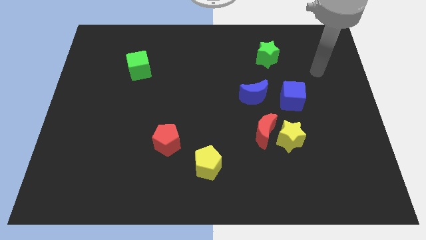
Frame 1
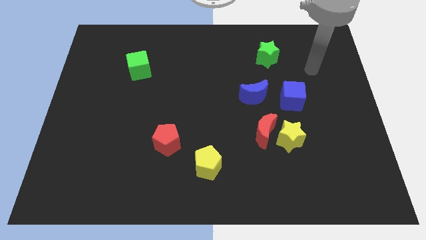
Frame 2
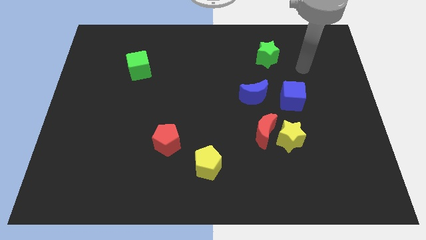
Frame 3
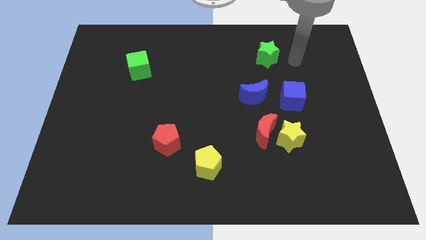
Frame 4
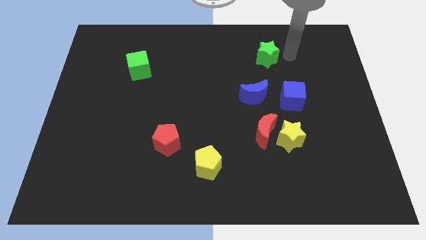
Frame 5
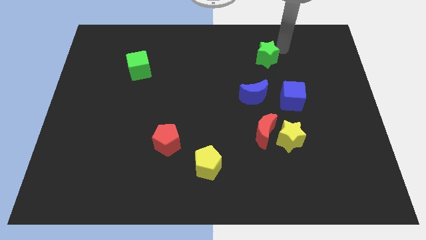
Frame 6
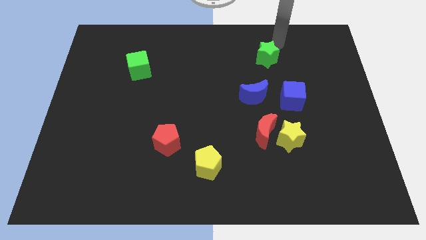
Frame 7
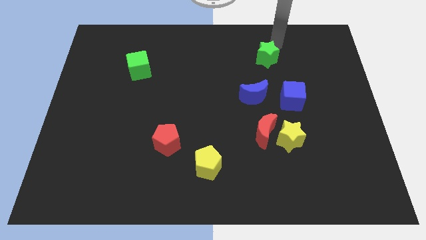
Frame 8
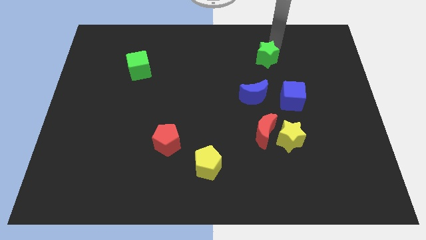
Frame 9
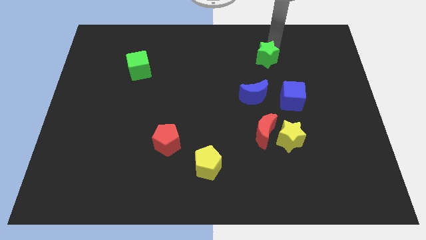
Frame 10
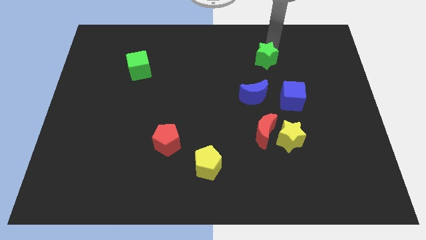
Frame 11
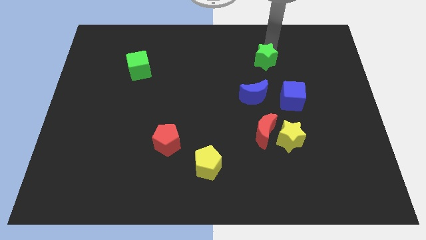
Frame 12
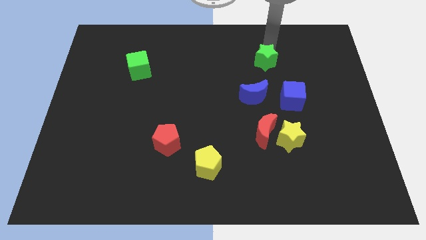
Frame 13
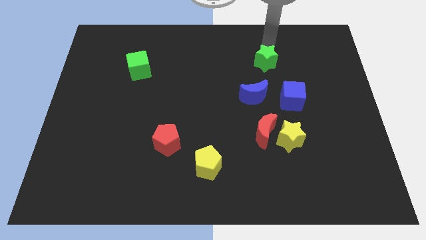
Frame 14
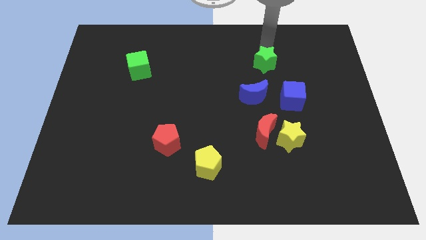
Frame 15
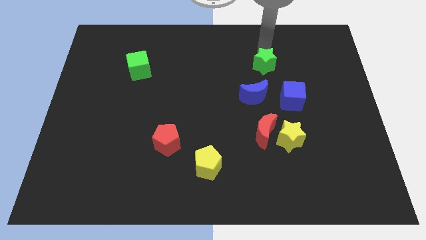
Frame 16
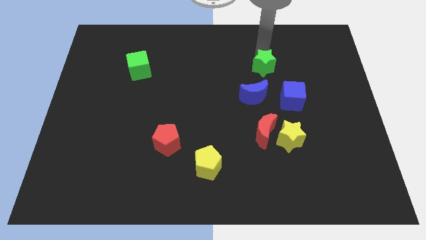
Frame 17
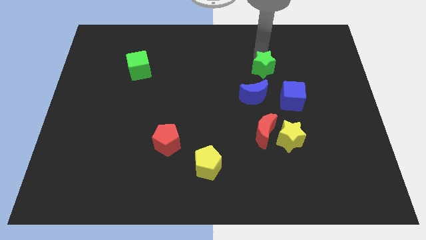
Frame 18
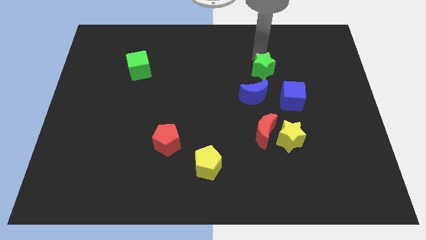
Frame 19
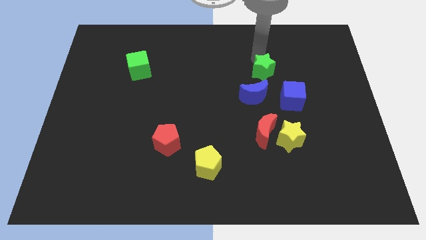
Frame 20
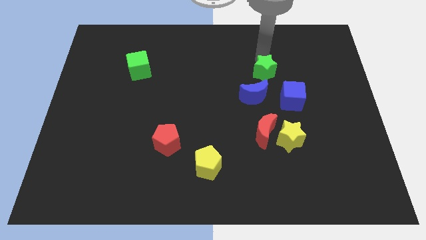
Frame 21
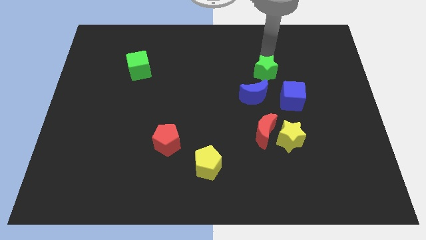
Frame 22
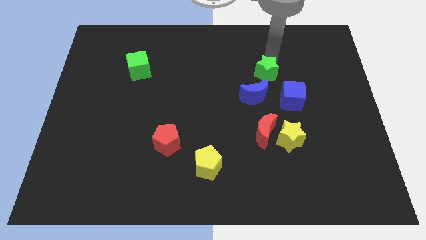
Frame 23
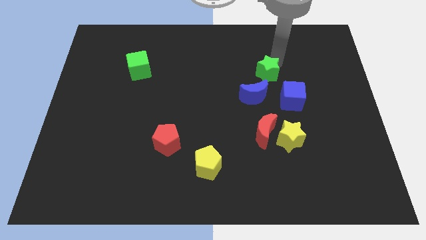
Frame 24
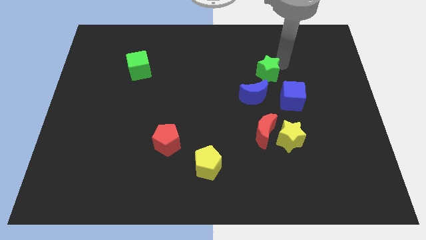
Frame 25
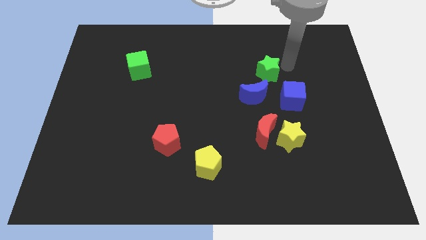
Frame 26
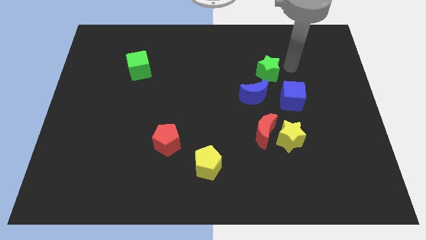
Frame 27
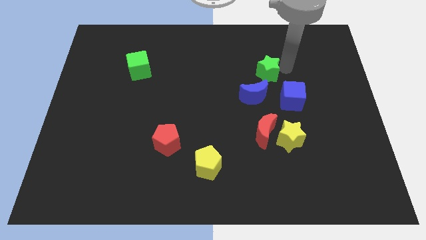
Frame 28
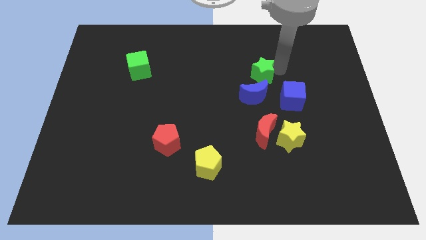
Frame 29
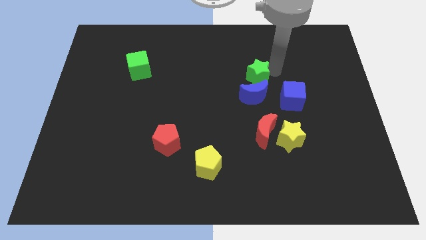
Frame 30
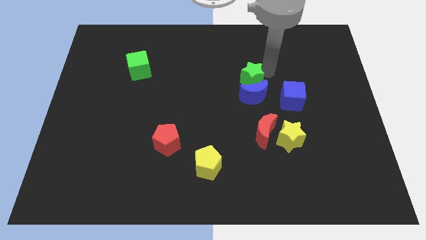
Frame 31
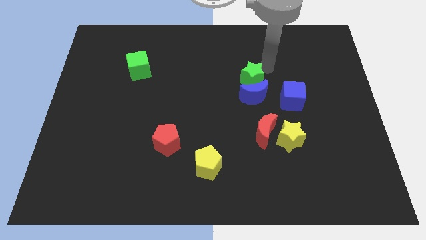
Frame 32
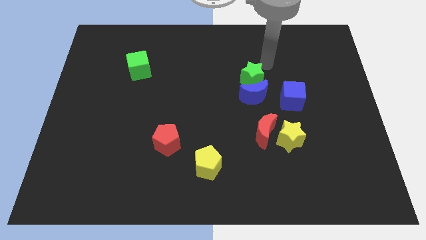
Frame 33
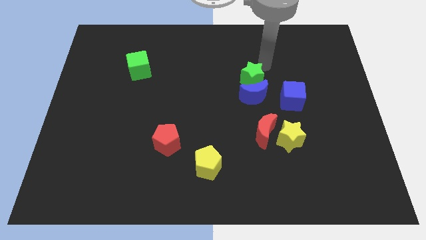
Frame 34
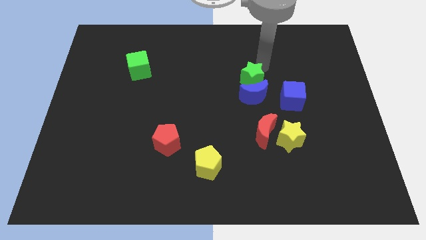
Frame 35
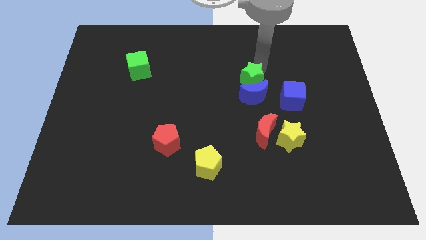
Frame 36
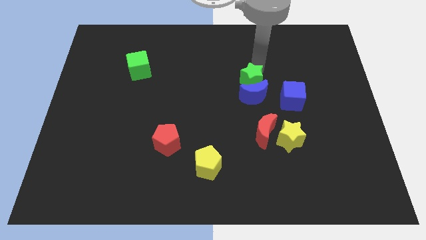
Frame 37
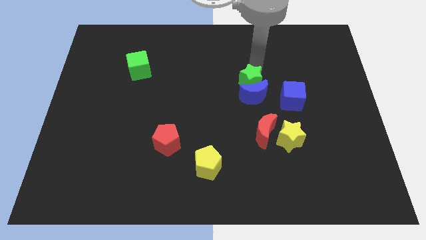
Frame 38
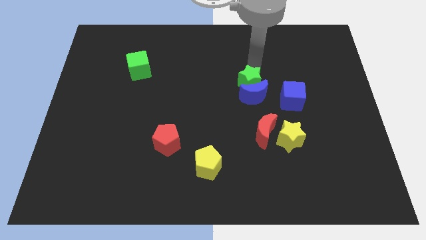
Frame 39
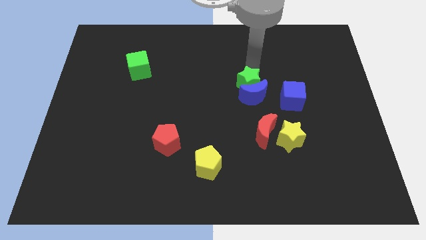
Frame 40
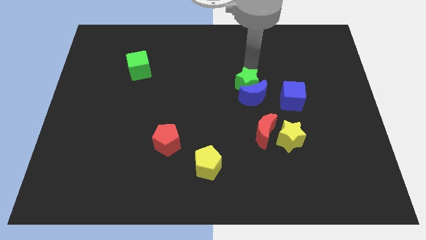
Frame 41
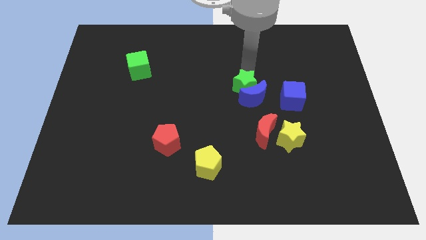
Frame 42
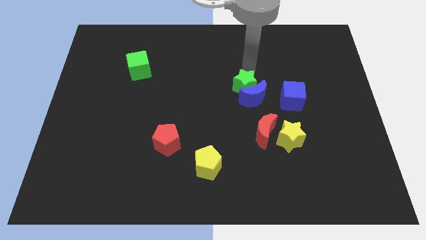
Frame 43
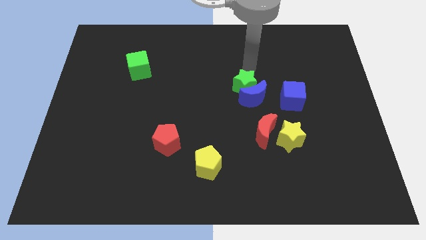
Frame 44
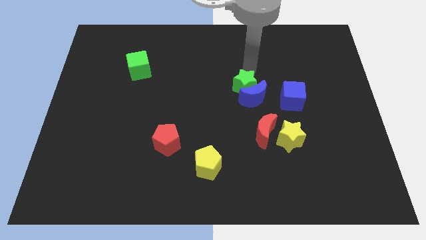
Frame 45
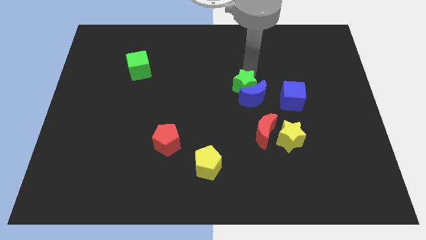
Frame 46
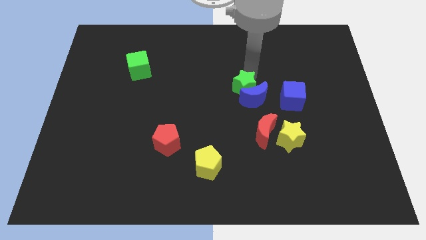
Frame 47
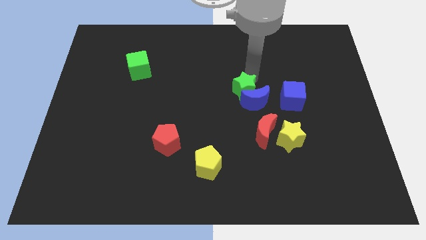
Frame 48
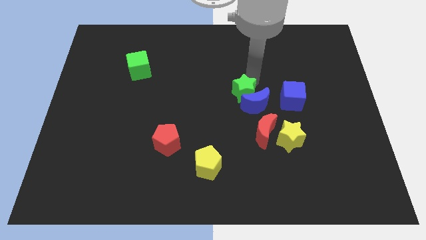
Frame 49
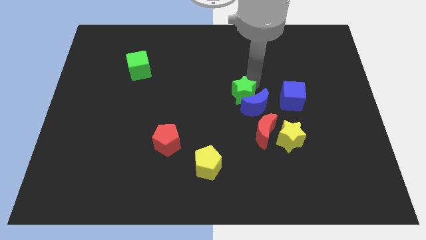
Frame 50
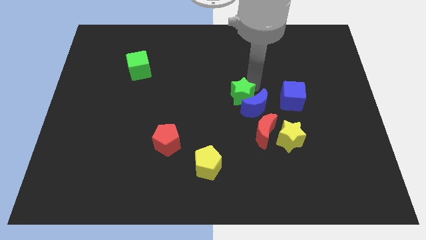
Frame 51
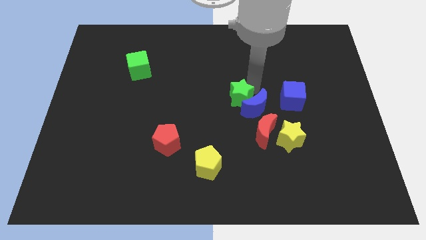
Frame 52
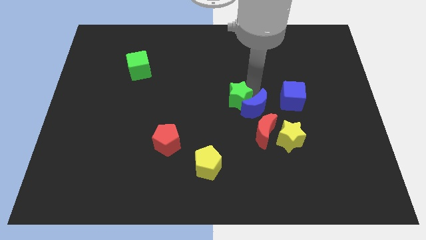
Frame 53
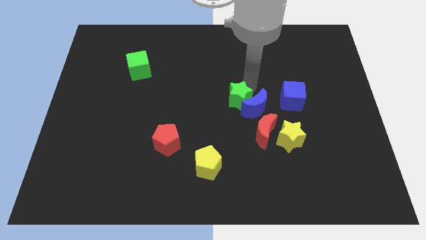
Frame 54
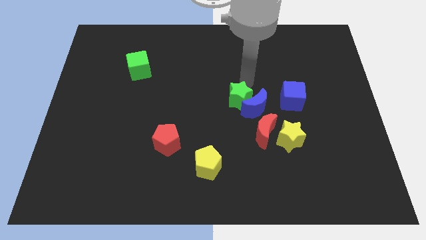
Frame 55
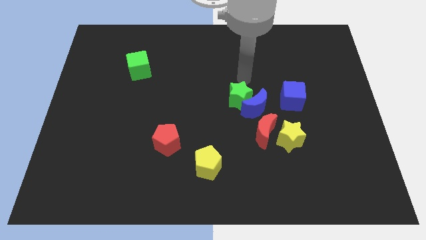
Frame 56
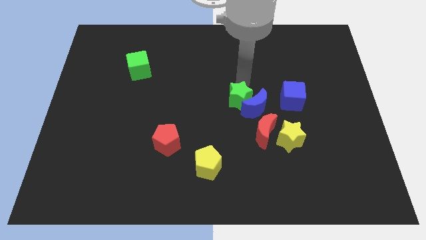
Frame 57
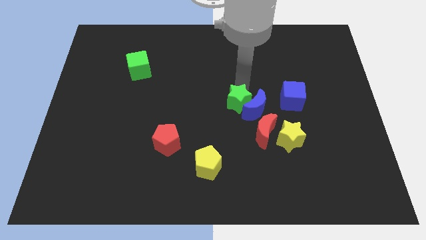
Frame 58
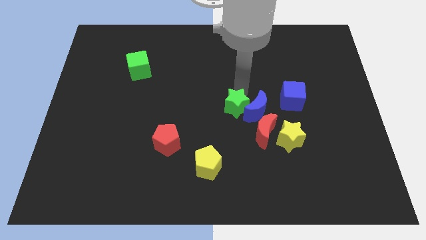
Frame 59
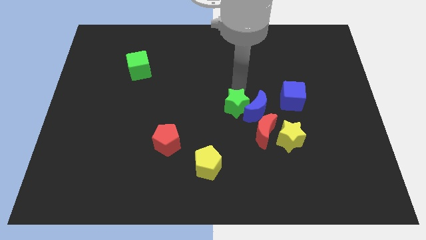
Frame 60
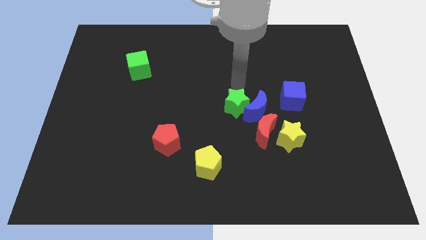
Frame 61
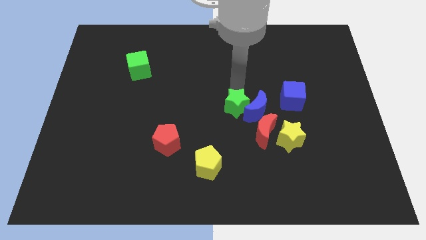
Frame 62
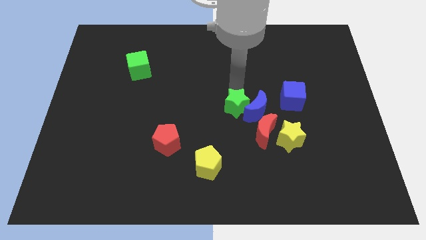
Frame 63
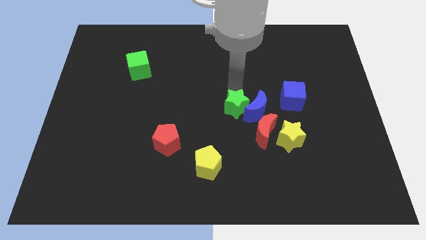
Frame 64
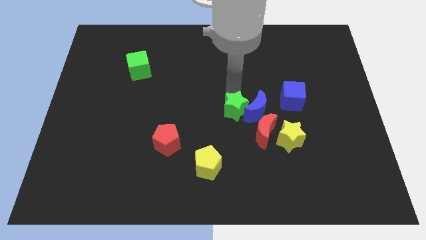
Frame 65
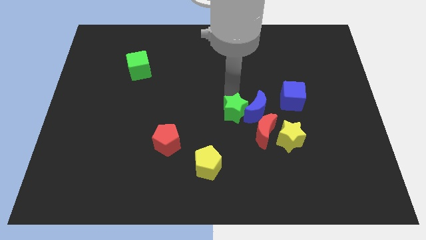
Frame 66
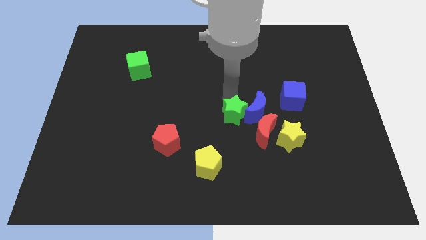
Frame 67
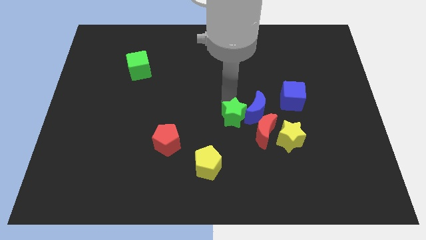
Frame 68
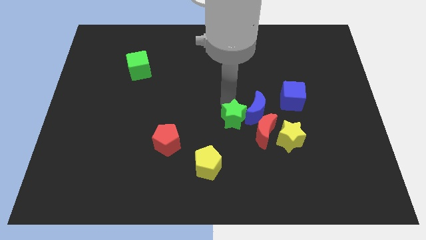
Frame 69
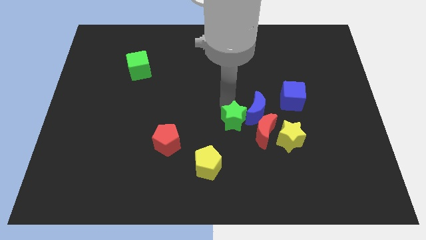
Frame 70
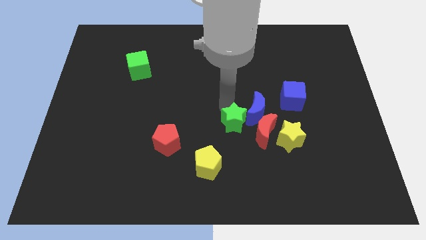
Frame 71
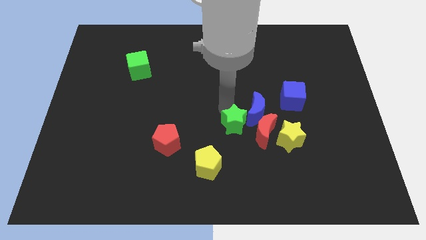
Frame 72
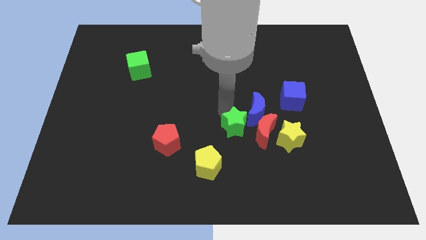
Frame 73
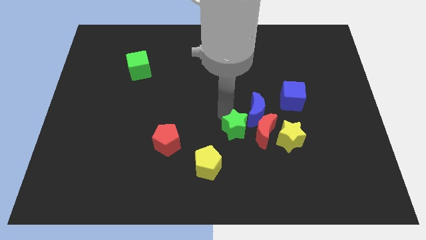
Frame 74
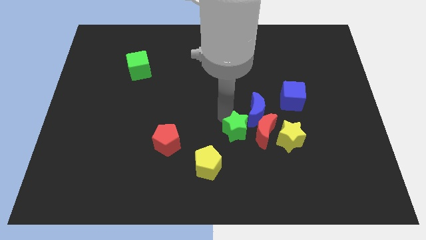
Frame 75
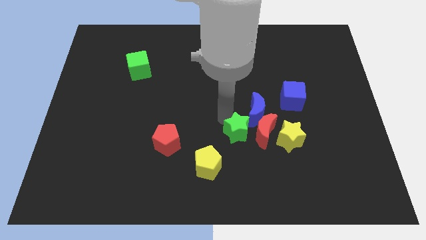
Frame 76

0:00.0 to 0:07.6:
push the green star downwards

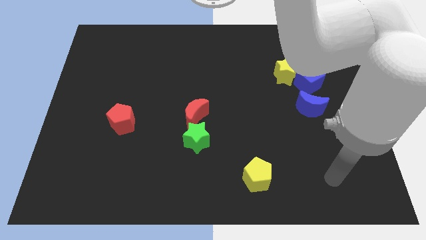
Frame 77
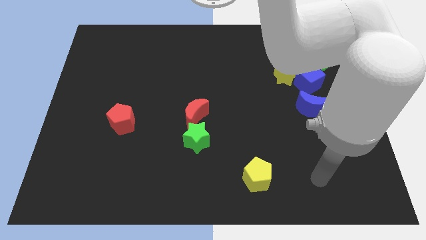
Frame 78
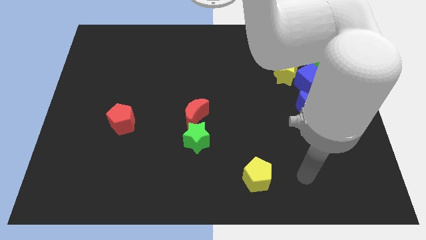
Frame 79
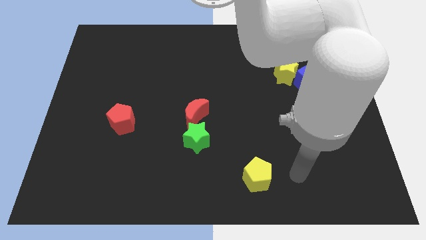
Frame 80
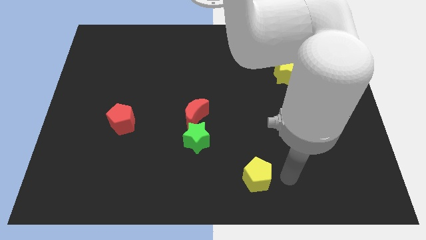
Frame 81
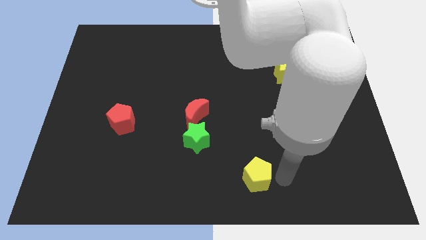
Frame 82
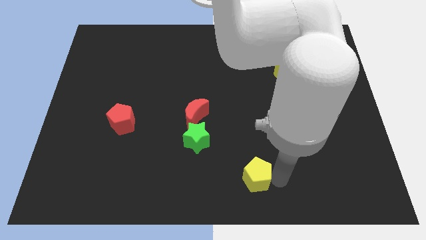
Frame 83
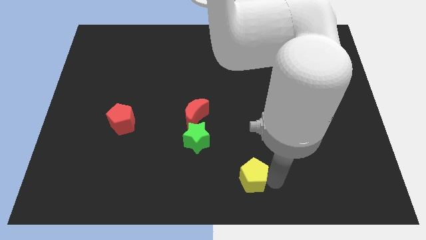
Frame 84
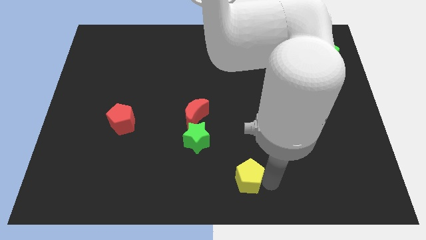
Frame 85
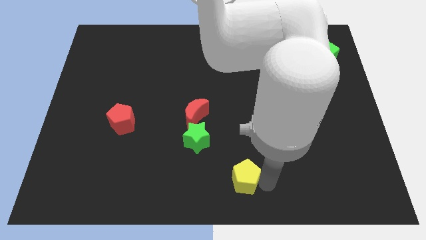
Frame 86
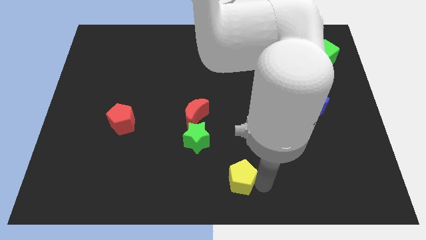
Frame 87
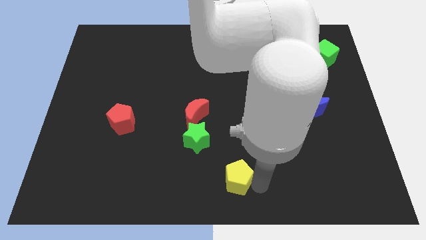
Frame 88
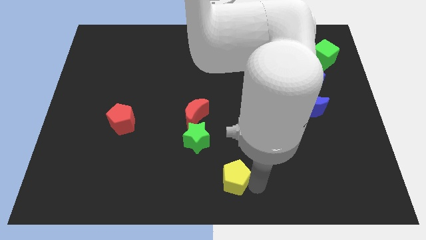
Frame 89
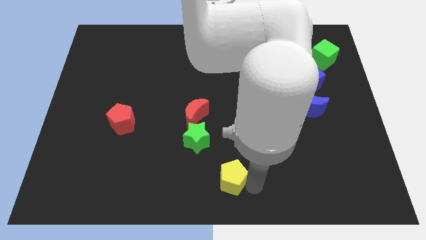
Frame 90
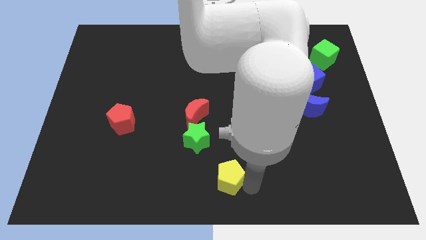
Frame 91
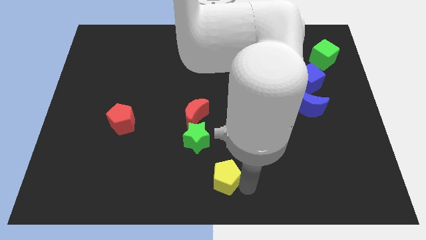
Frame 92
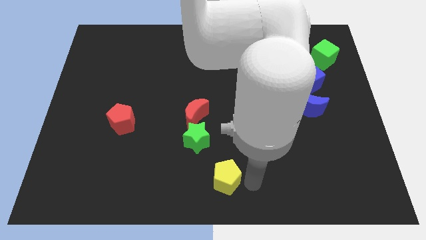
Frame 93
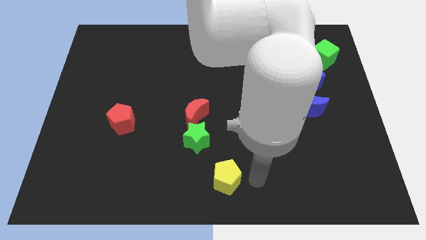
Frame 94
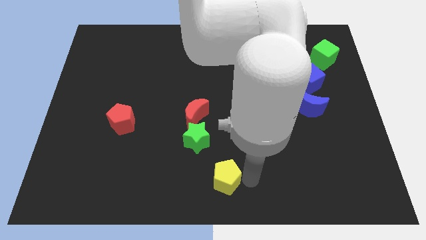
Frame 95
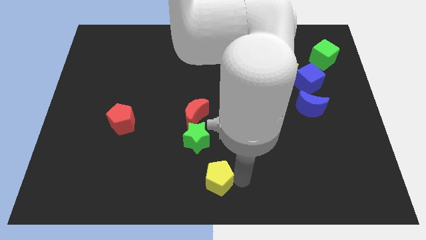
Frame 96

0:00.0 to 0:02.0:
slightly move the yellow pentagon left
